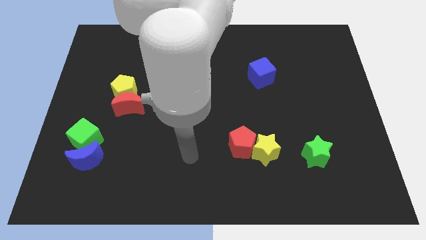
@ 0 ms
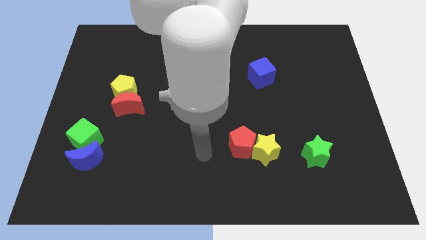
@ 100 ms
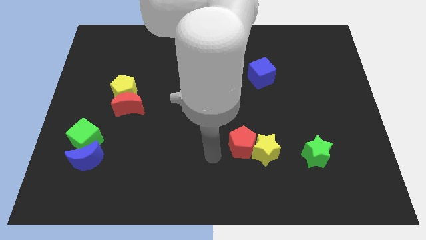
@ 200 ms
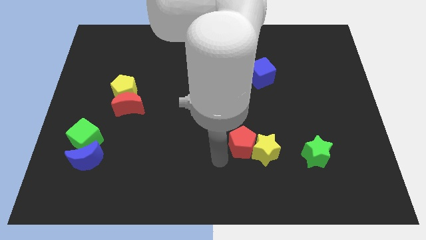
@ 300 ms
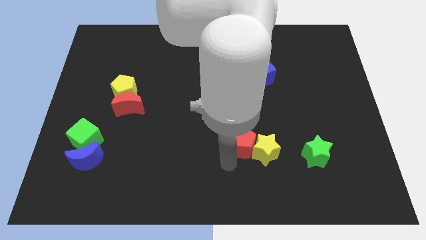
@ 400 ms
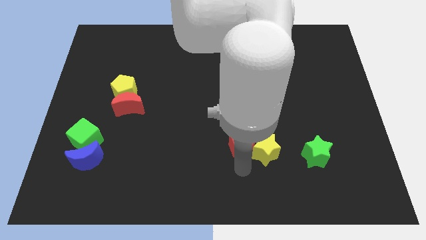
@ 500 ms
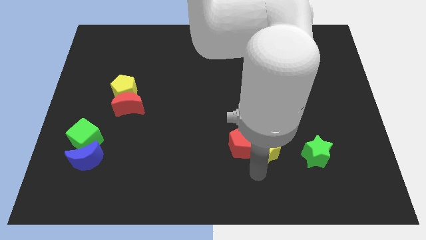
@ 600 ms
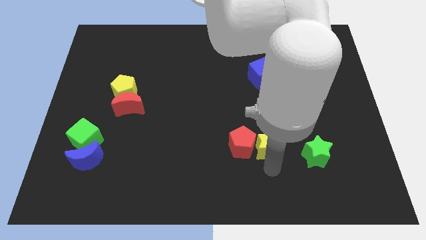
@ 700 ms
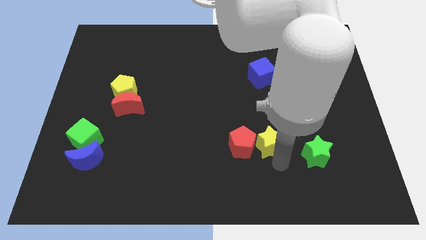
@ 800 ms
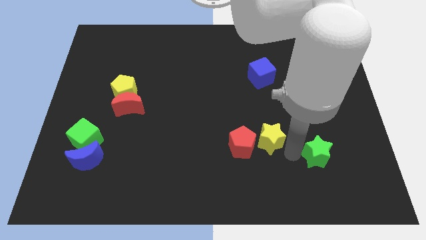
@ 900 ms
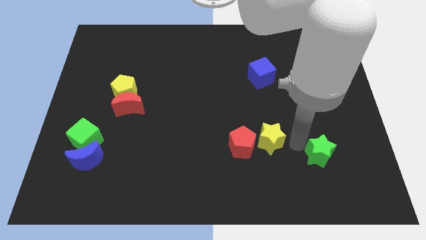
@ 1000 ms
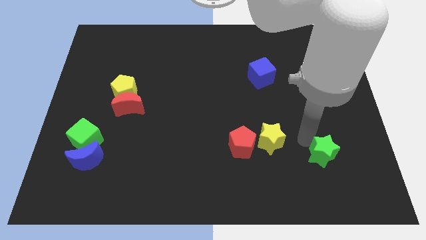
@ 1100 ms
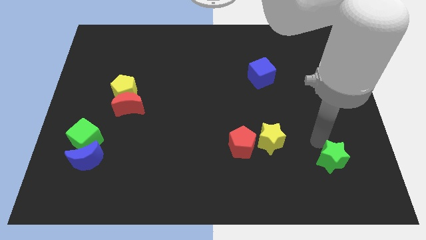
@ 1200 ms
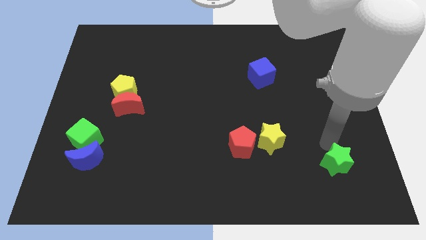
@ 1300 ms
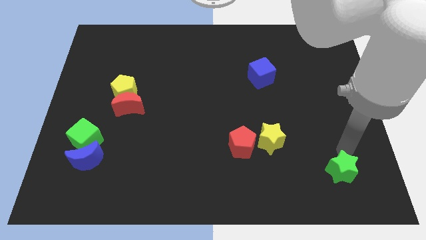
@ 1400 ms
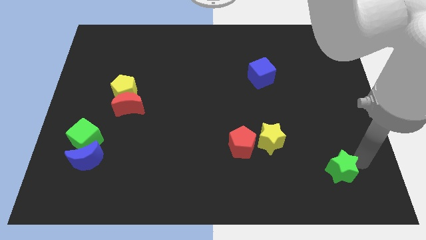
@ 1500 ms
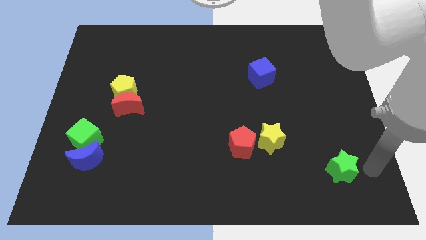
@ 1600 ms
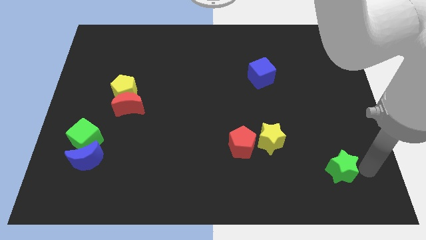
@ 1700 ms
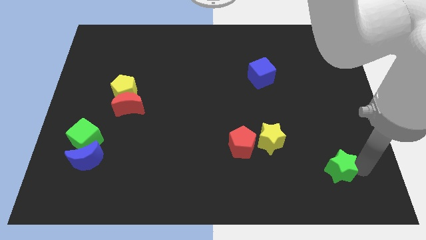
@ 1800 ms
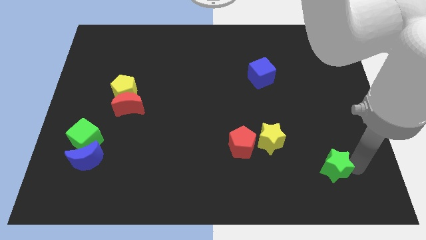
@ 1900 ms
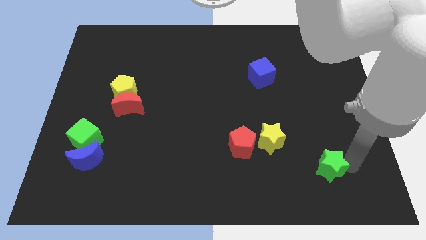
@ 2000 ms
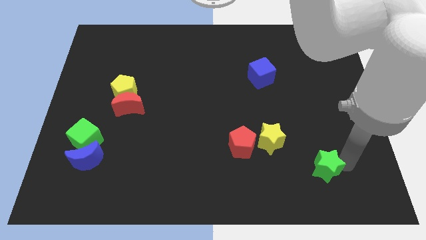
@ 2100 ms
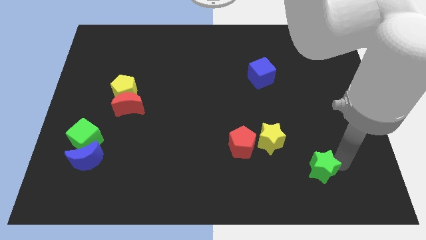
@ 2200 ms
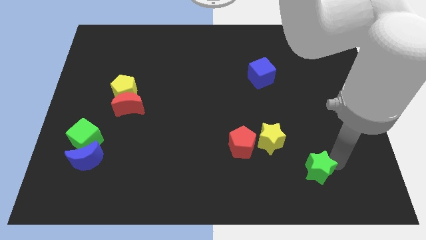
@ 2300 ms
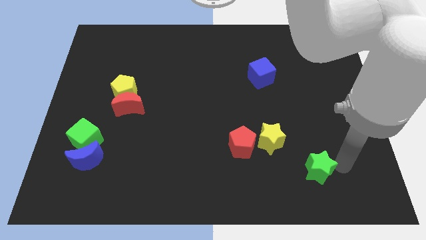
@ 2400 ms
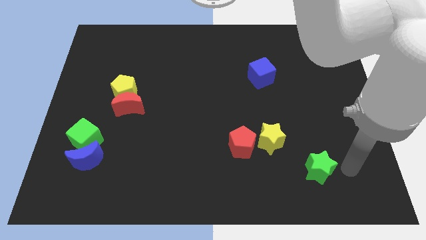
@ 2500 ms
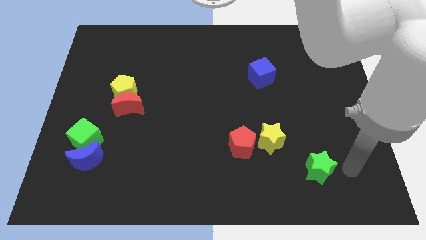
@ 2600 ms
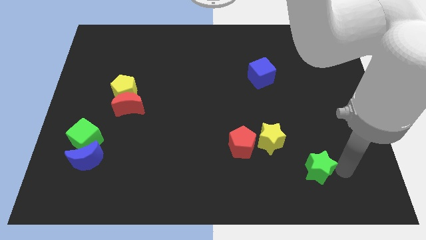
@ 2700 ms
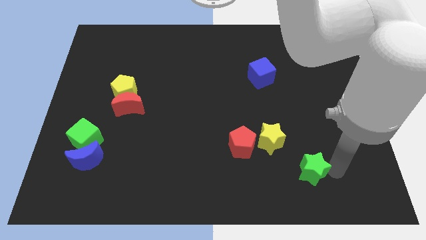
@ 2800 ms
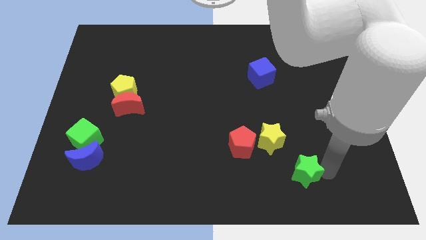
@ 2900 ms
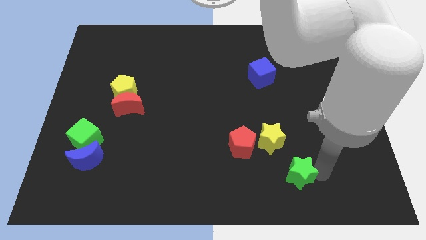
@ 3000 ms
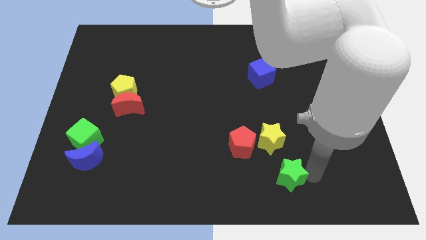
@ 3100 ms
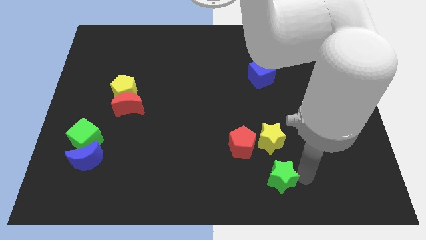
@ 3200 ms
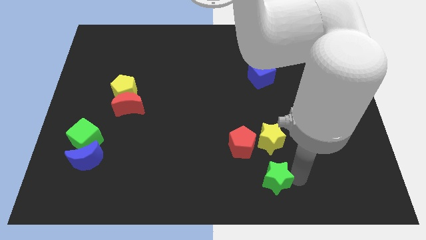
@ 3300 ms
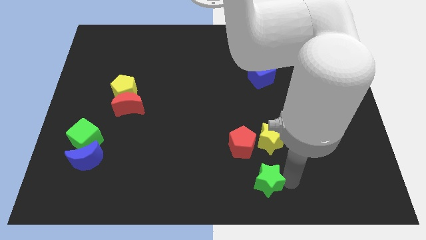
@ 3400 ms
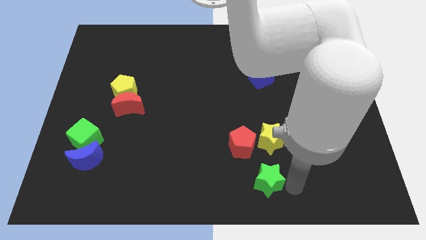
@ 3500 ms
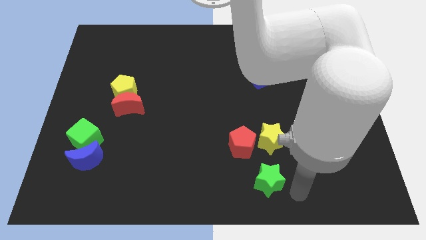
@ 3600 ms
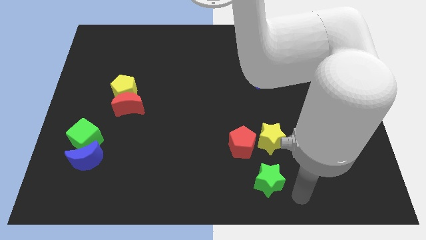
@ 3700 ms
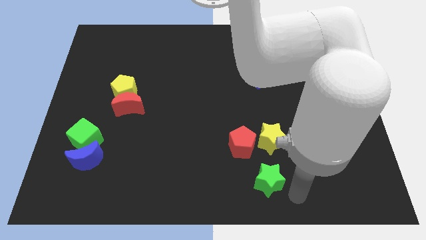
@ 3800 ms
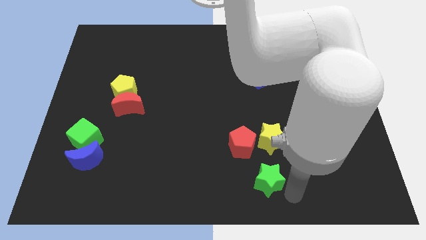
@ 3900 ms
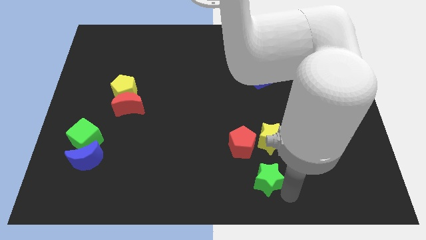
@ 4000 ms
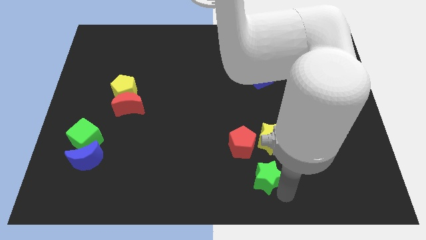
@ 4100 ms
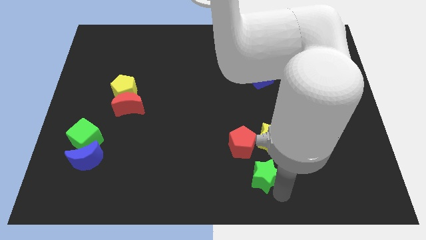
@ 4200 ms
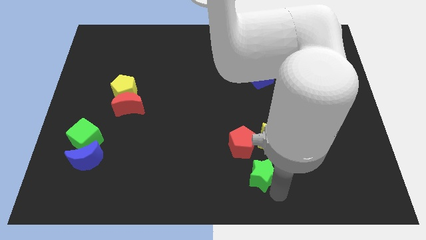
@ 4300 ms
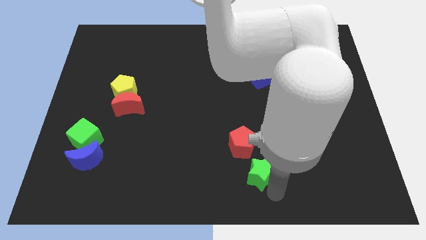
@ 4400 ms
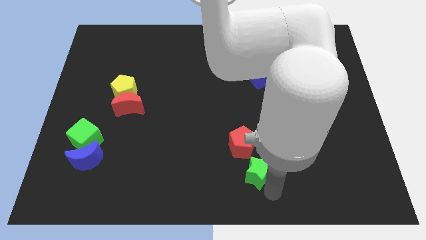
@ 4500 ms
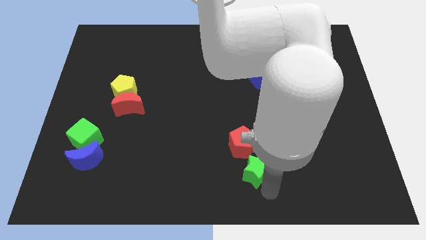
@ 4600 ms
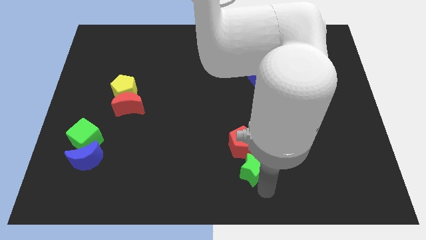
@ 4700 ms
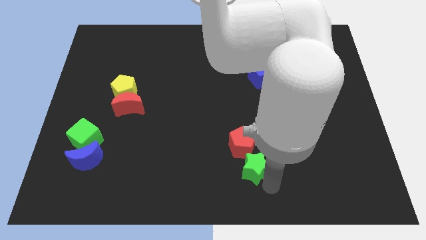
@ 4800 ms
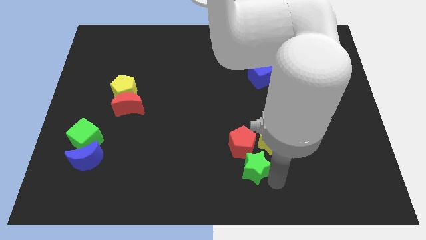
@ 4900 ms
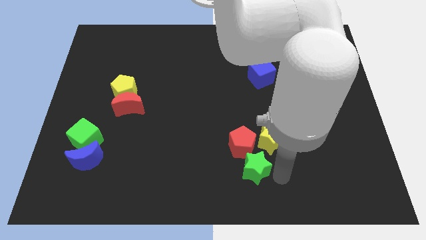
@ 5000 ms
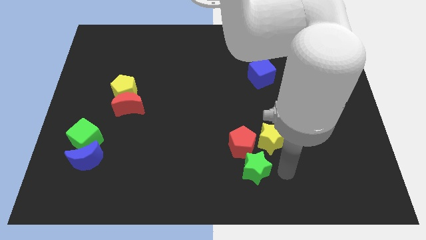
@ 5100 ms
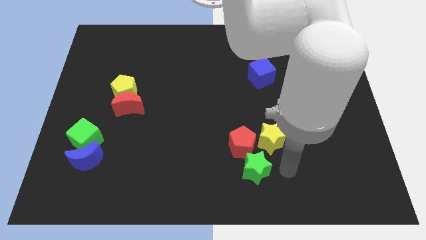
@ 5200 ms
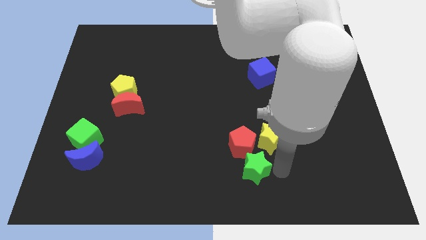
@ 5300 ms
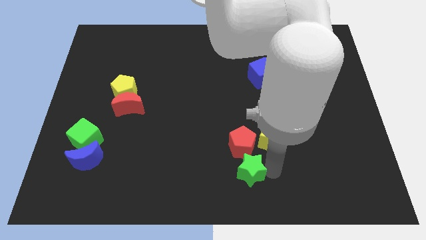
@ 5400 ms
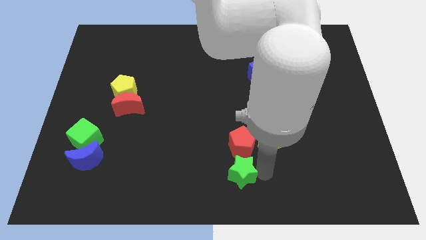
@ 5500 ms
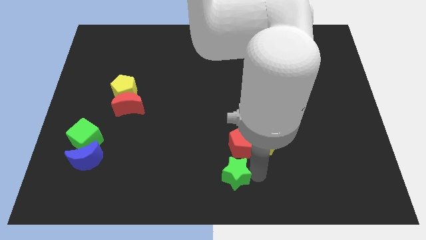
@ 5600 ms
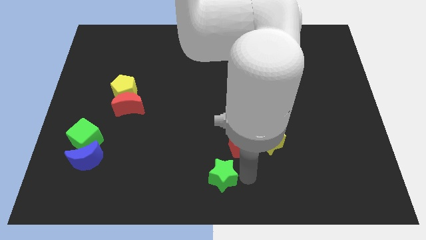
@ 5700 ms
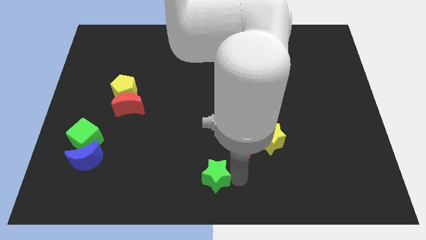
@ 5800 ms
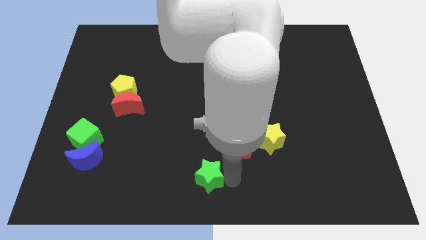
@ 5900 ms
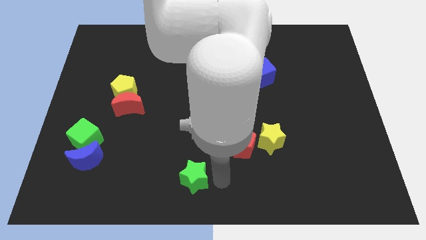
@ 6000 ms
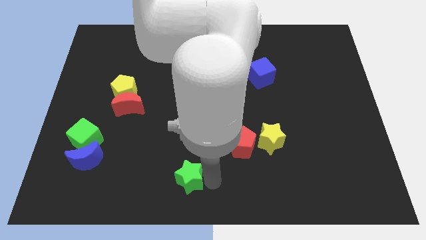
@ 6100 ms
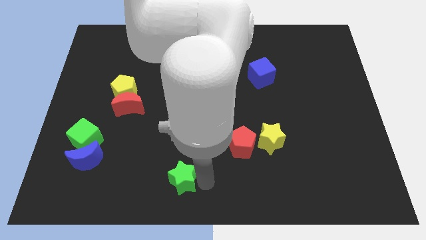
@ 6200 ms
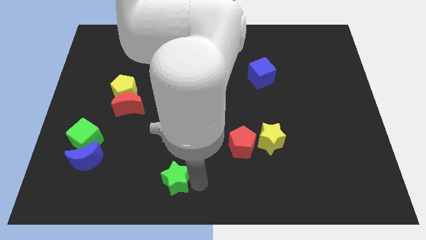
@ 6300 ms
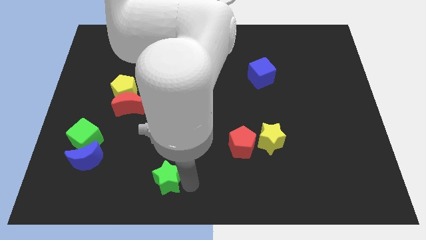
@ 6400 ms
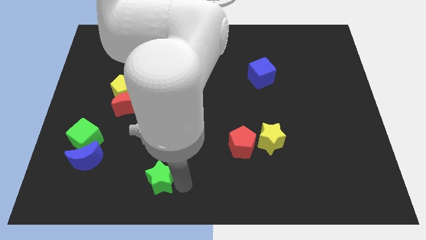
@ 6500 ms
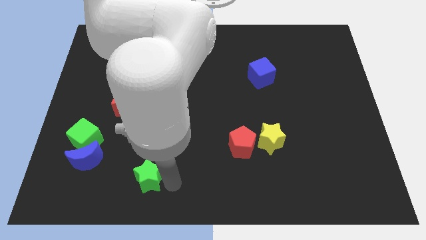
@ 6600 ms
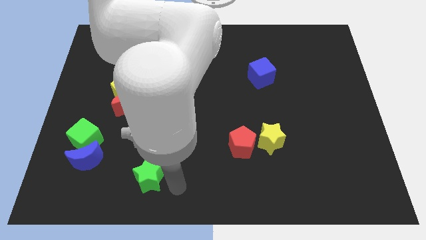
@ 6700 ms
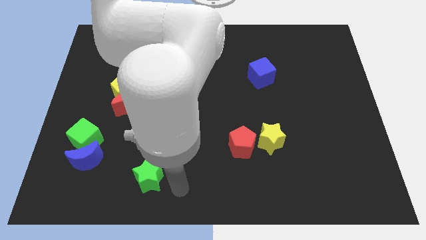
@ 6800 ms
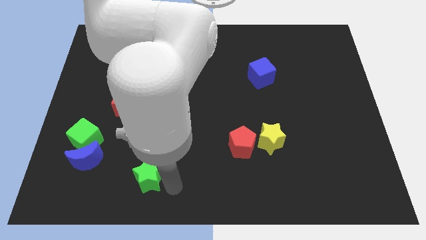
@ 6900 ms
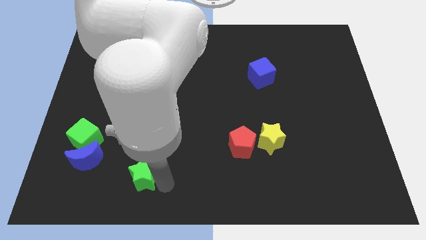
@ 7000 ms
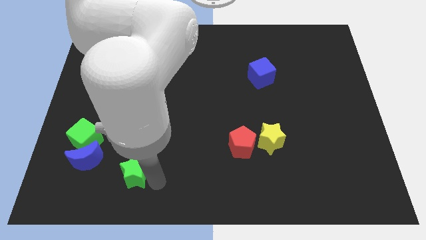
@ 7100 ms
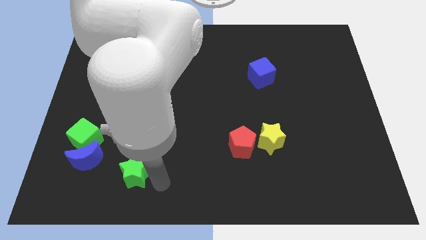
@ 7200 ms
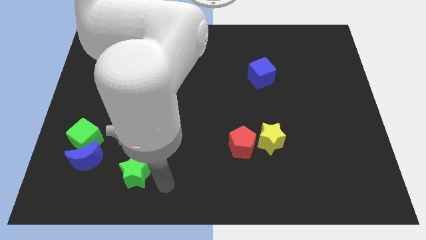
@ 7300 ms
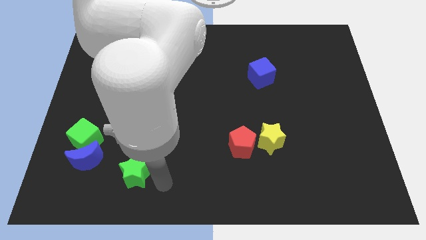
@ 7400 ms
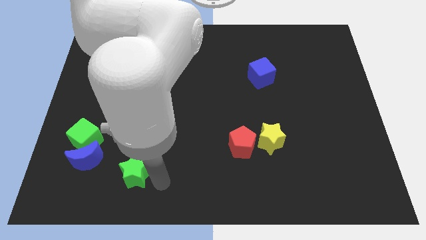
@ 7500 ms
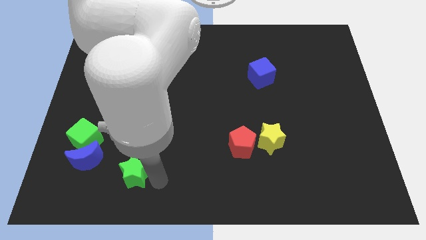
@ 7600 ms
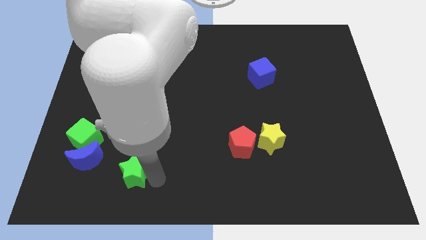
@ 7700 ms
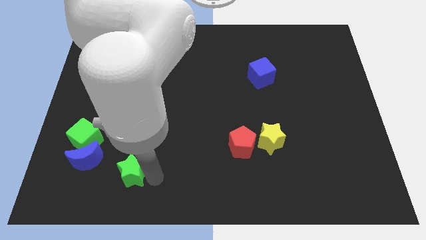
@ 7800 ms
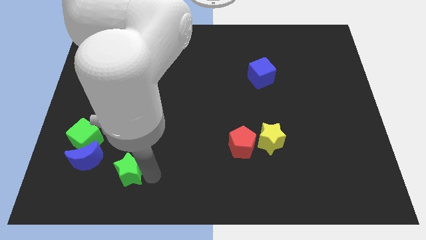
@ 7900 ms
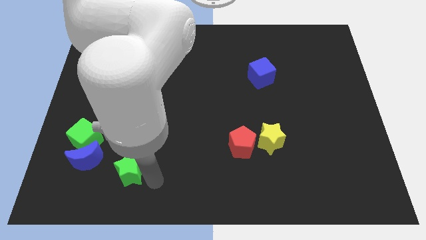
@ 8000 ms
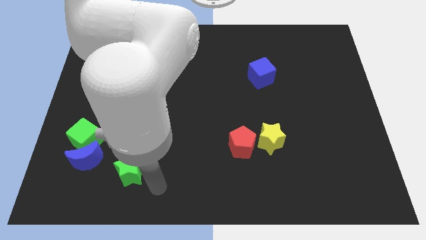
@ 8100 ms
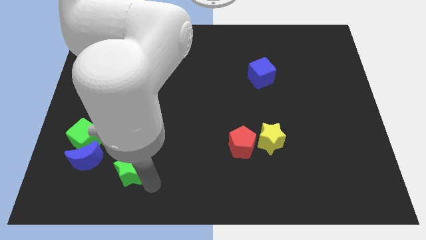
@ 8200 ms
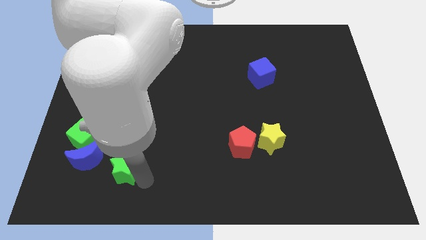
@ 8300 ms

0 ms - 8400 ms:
move the green star to the bottom right side of the green cube
